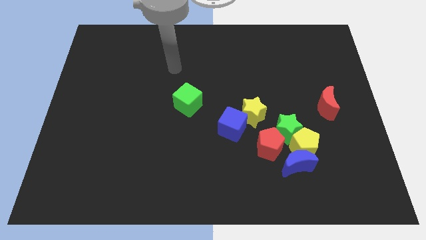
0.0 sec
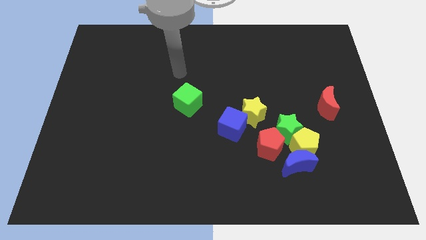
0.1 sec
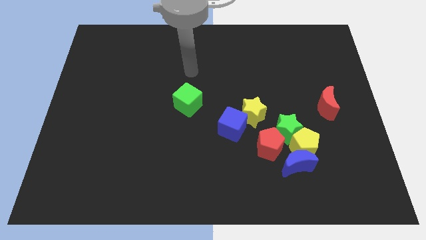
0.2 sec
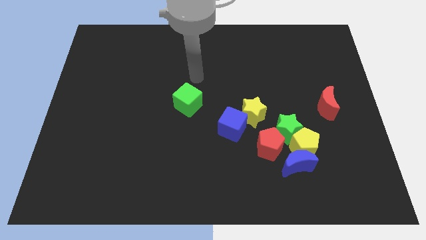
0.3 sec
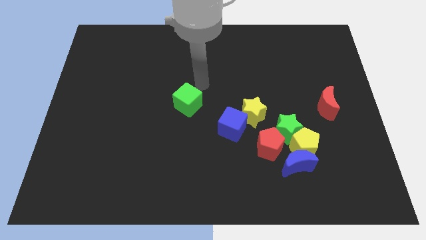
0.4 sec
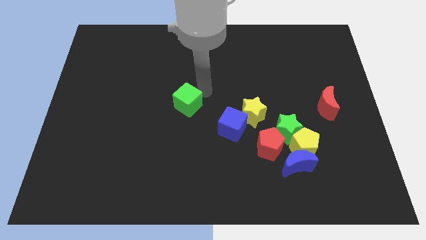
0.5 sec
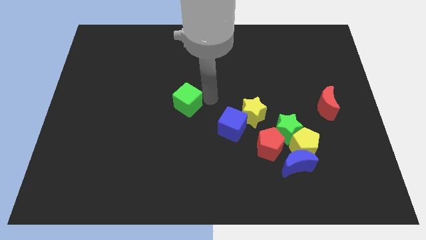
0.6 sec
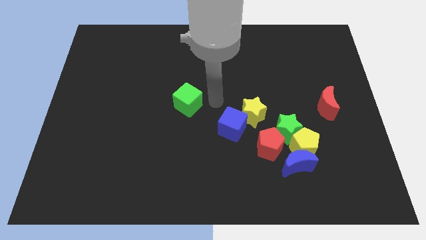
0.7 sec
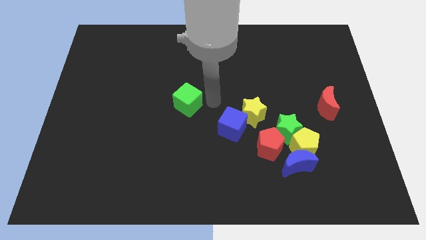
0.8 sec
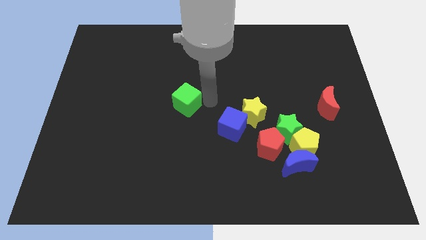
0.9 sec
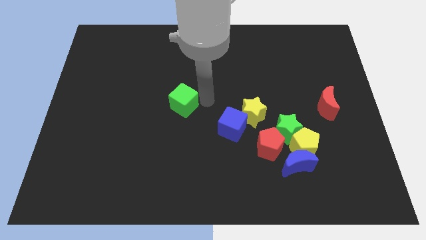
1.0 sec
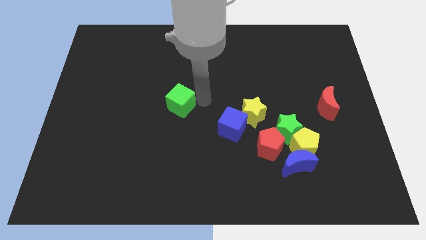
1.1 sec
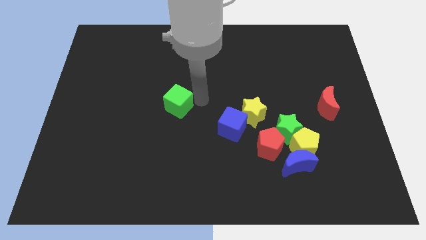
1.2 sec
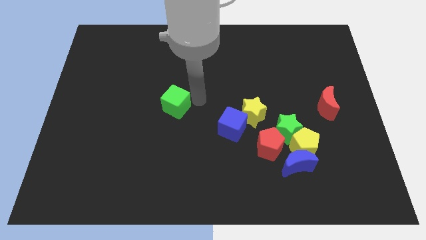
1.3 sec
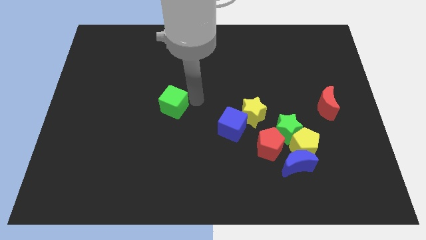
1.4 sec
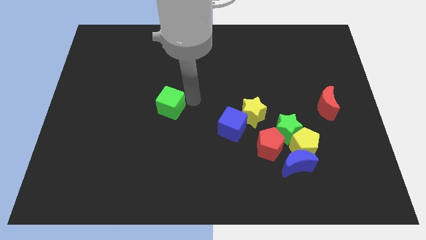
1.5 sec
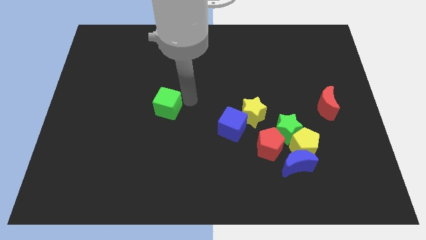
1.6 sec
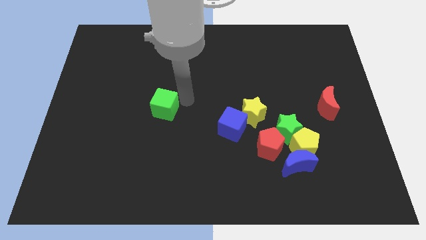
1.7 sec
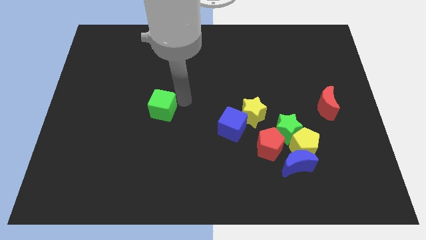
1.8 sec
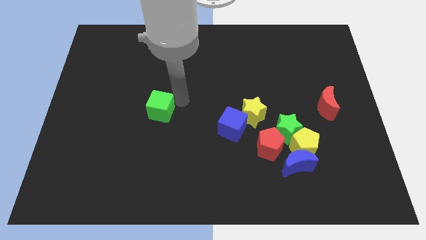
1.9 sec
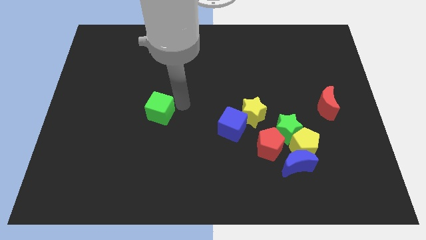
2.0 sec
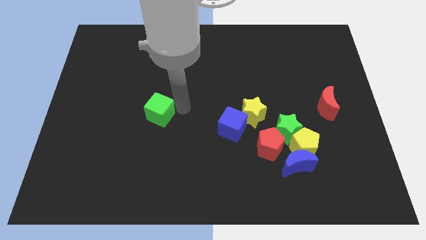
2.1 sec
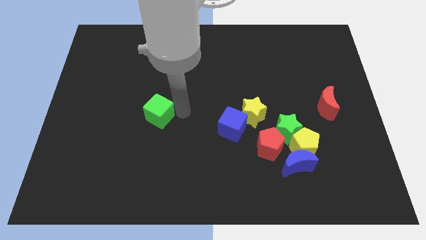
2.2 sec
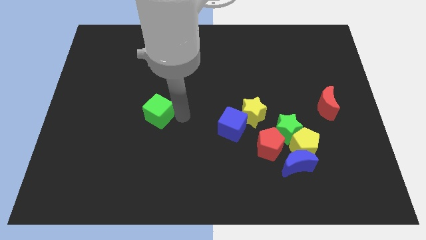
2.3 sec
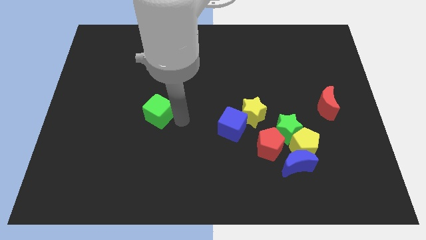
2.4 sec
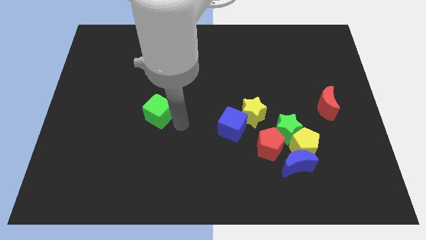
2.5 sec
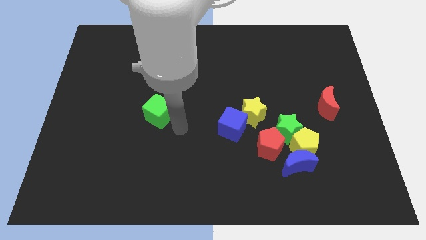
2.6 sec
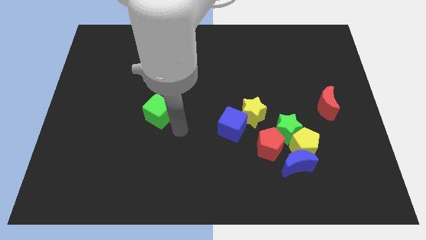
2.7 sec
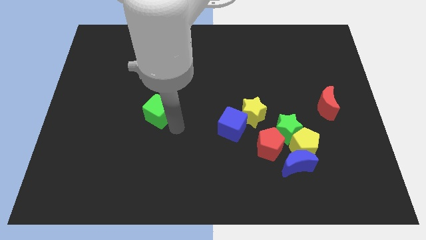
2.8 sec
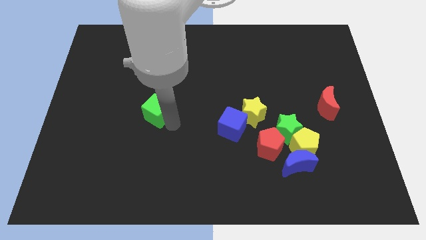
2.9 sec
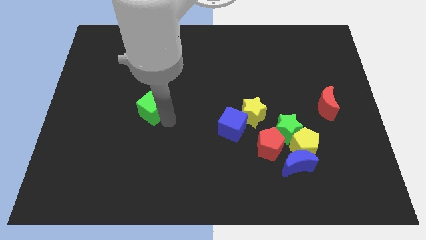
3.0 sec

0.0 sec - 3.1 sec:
move the green cube somewhat to the left

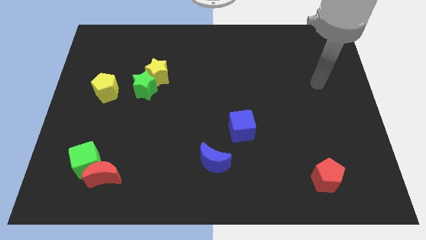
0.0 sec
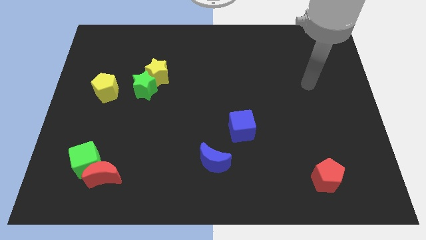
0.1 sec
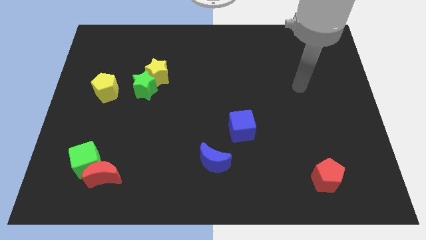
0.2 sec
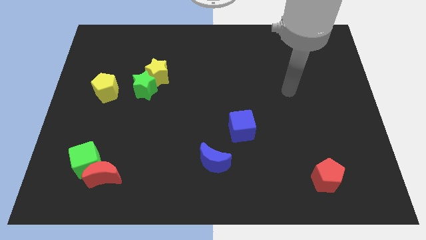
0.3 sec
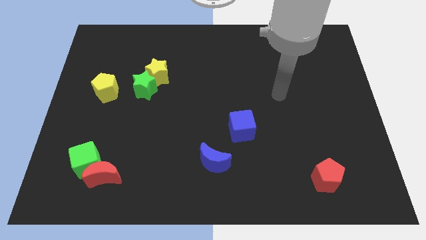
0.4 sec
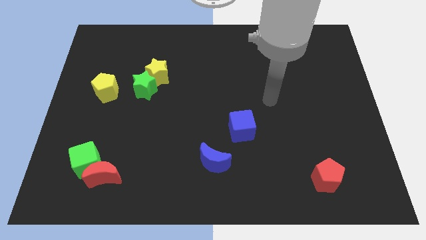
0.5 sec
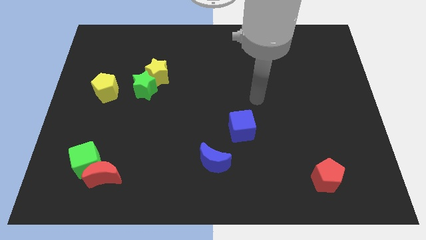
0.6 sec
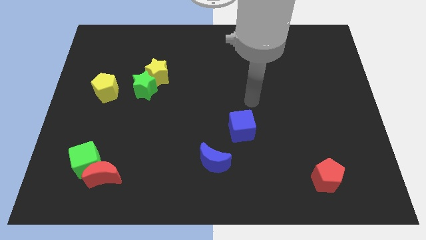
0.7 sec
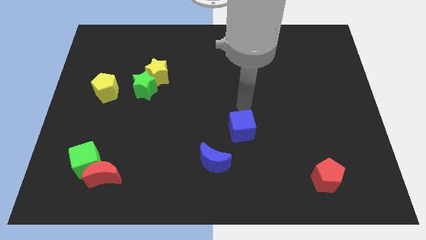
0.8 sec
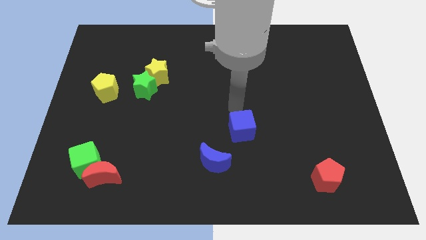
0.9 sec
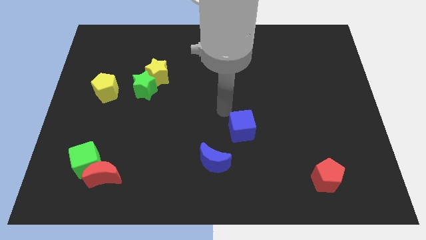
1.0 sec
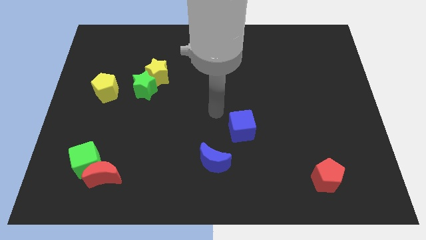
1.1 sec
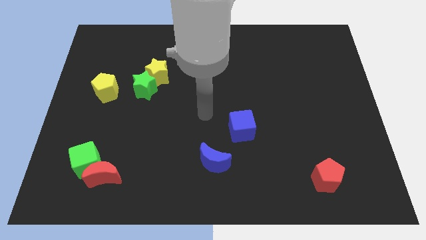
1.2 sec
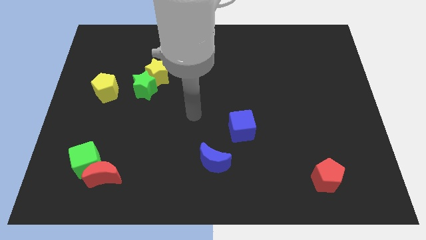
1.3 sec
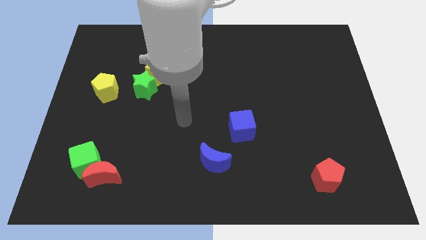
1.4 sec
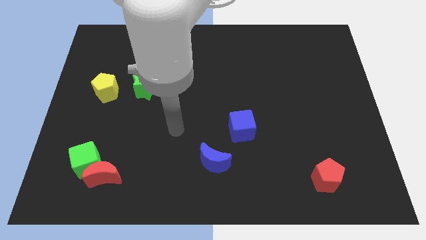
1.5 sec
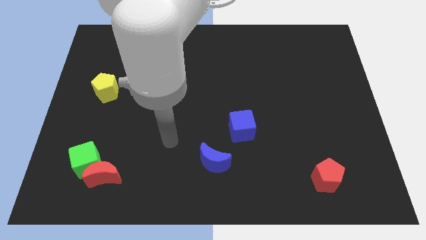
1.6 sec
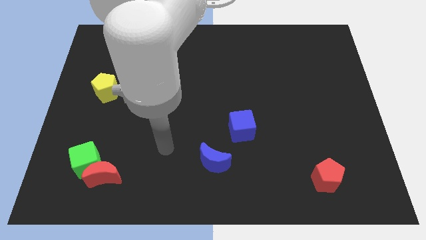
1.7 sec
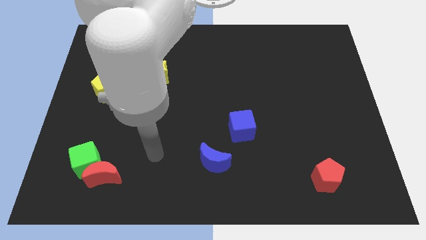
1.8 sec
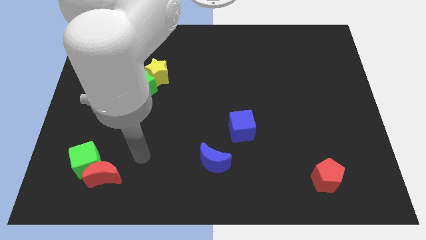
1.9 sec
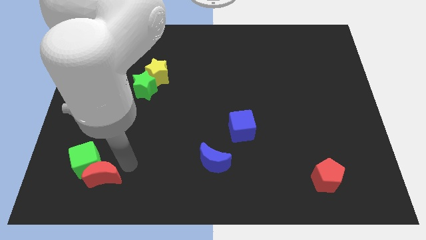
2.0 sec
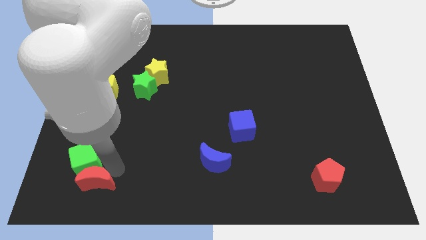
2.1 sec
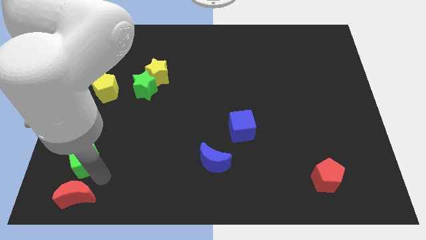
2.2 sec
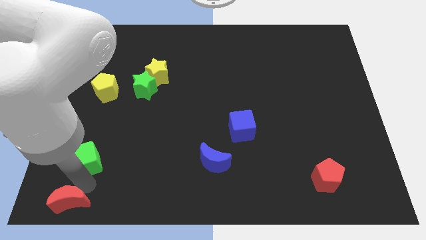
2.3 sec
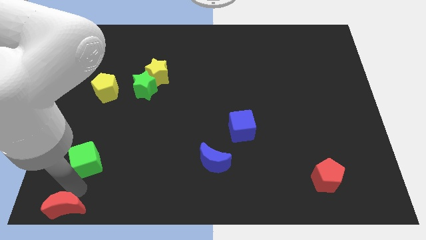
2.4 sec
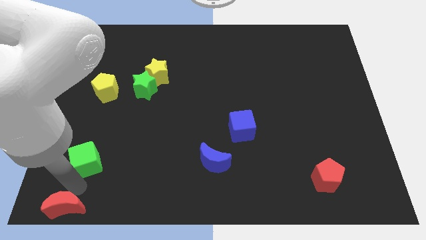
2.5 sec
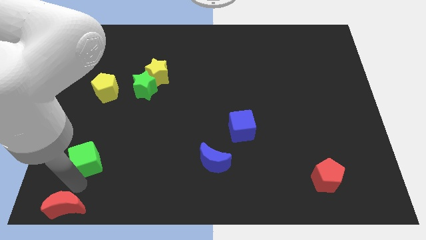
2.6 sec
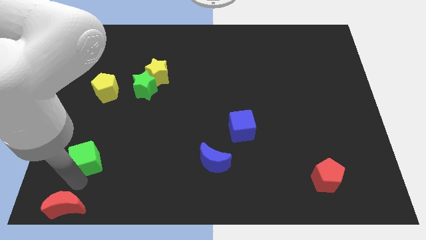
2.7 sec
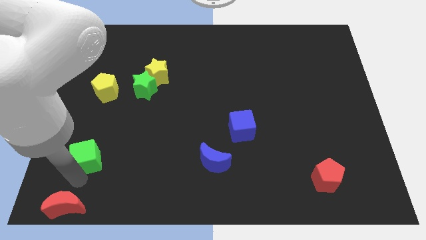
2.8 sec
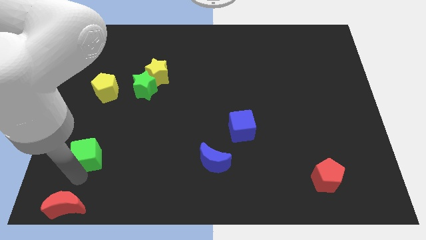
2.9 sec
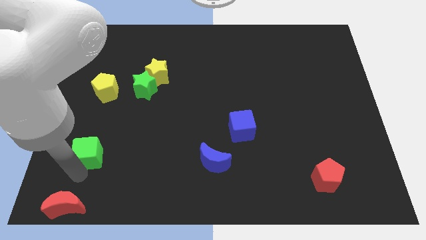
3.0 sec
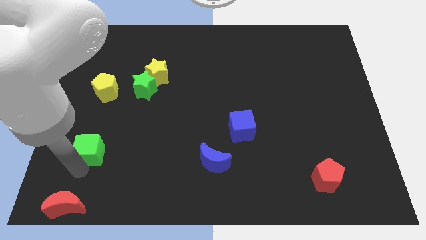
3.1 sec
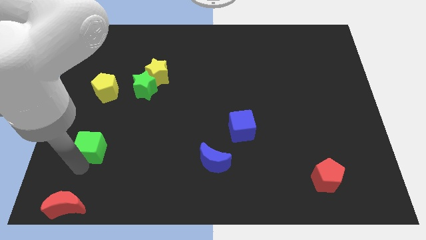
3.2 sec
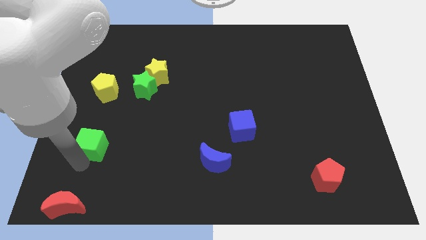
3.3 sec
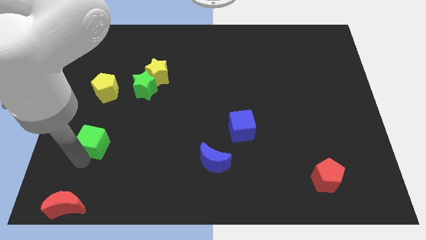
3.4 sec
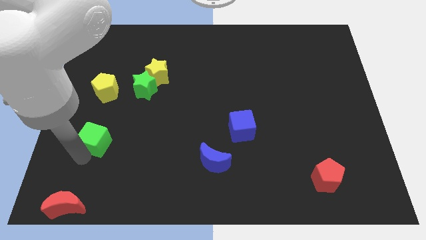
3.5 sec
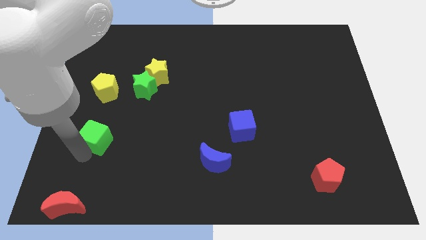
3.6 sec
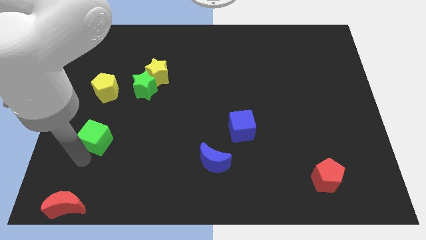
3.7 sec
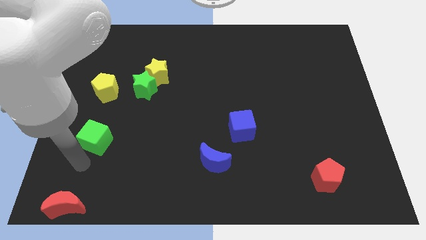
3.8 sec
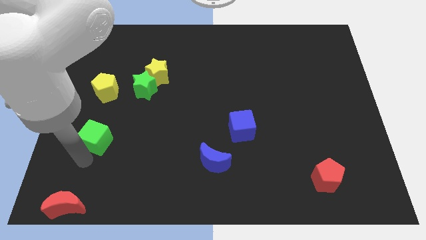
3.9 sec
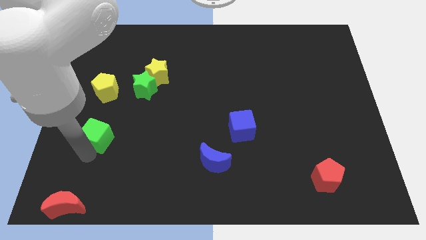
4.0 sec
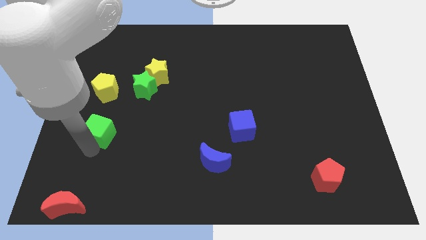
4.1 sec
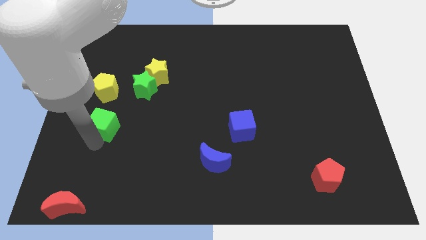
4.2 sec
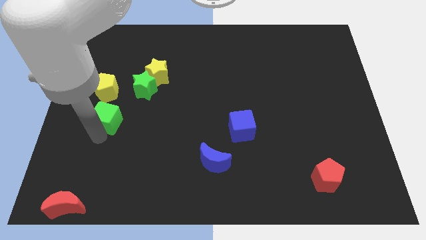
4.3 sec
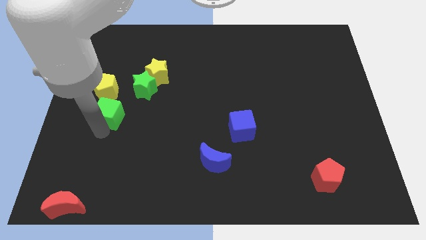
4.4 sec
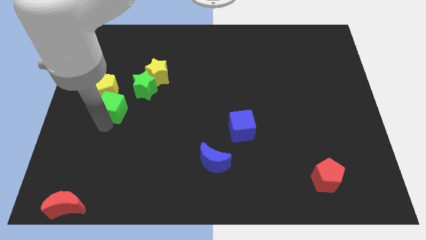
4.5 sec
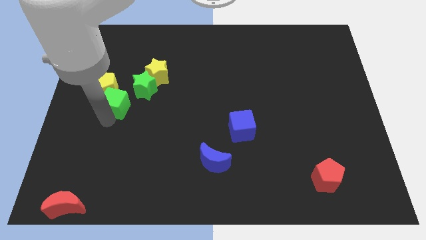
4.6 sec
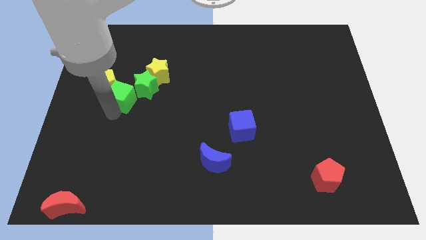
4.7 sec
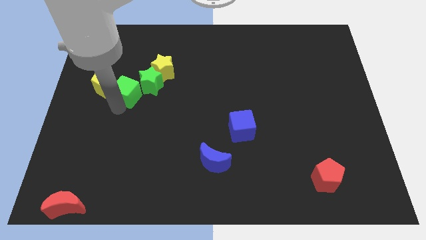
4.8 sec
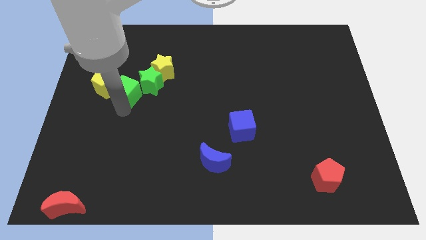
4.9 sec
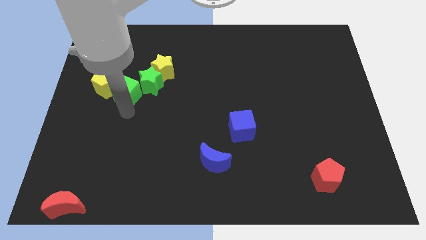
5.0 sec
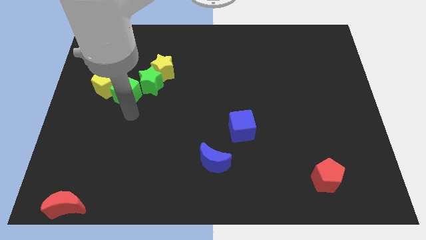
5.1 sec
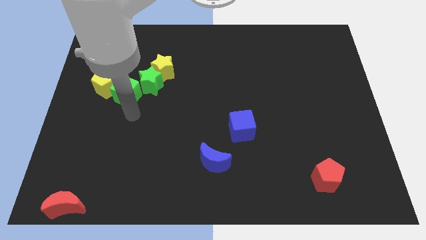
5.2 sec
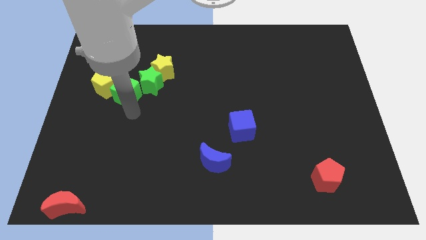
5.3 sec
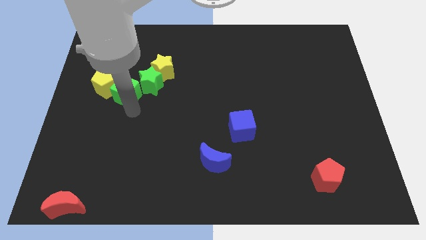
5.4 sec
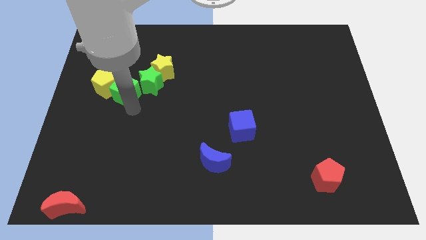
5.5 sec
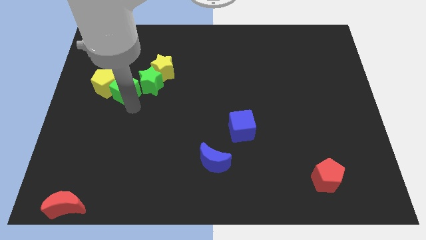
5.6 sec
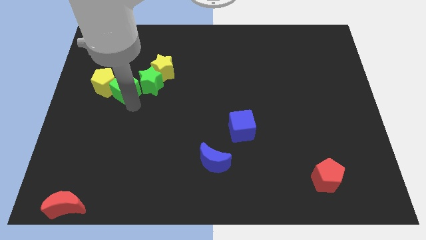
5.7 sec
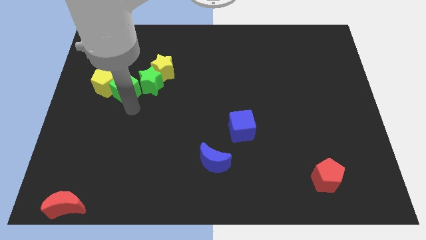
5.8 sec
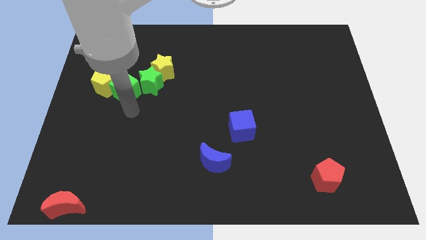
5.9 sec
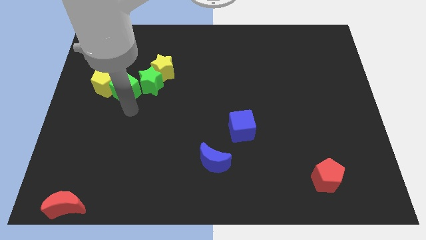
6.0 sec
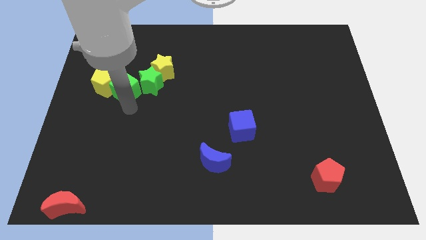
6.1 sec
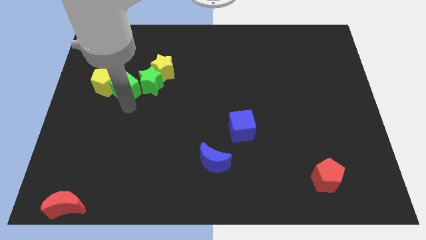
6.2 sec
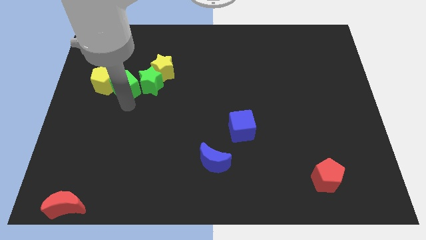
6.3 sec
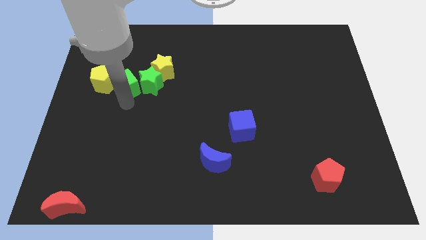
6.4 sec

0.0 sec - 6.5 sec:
push the green cube up
